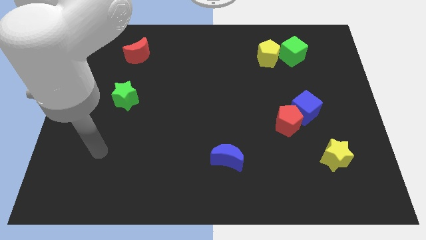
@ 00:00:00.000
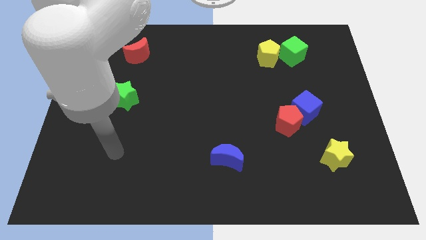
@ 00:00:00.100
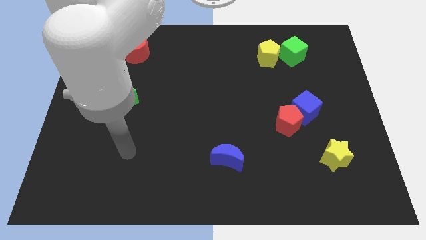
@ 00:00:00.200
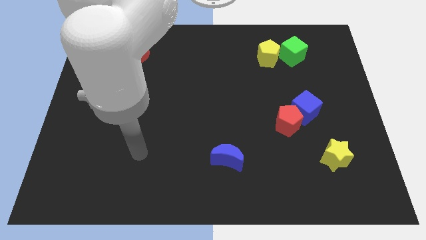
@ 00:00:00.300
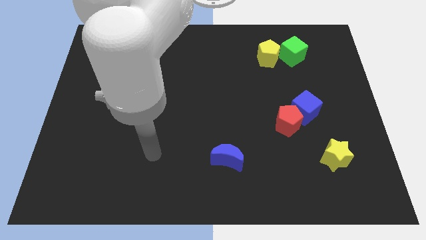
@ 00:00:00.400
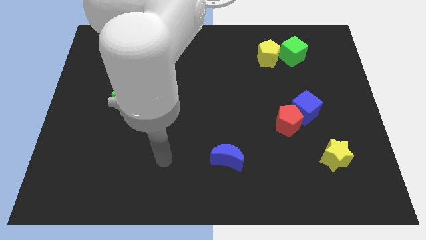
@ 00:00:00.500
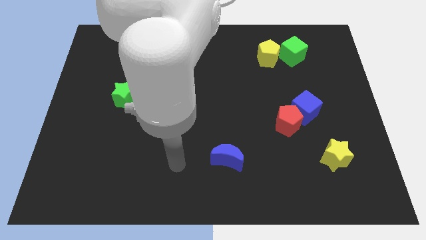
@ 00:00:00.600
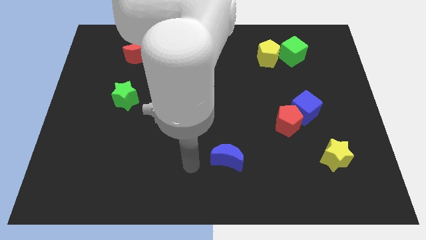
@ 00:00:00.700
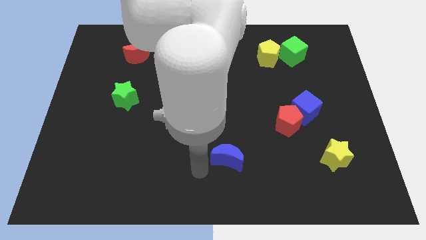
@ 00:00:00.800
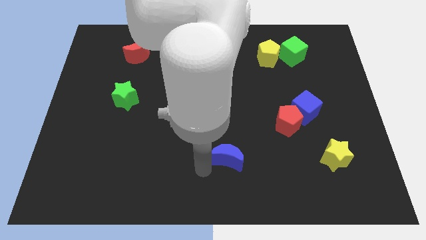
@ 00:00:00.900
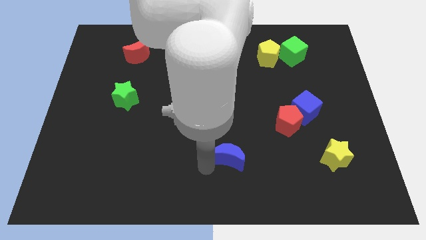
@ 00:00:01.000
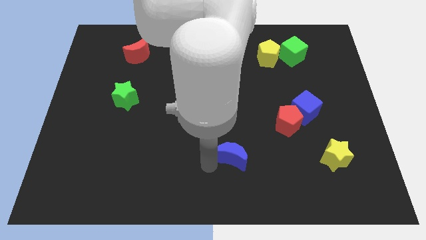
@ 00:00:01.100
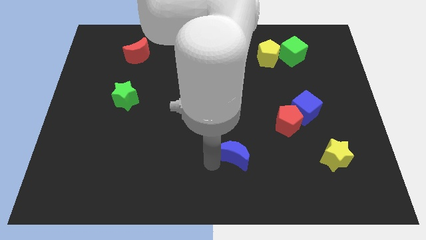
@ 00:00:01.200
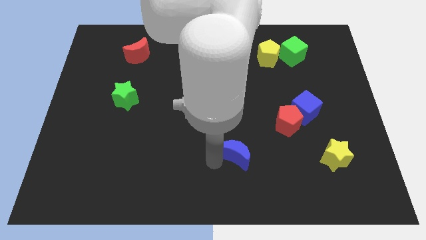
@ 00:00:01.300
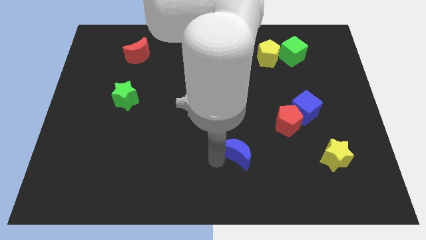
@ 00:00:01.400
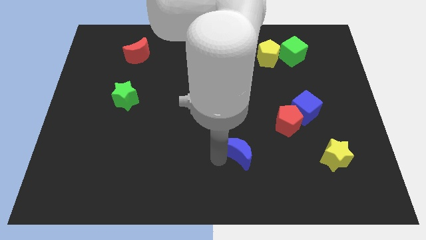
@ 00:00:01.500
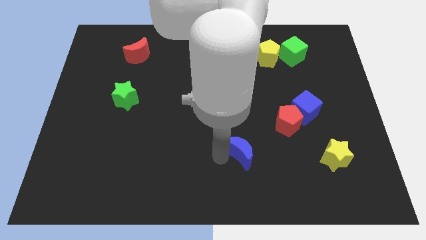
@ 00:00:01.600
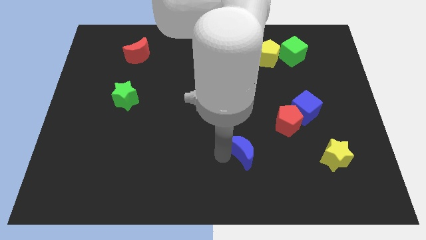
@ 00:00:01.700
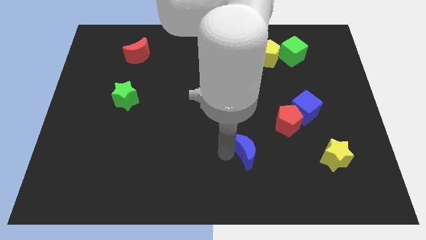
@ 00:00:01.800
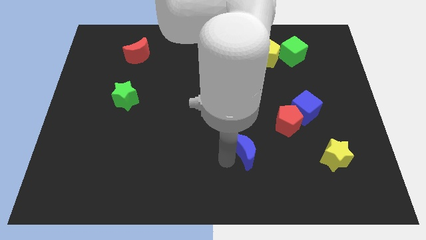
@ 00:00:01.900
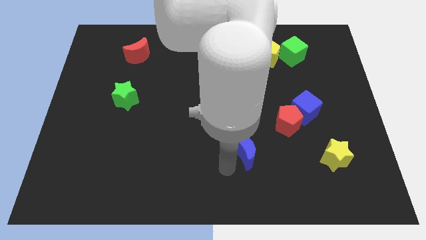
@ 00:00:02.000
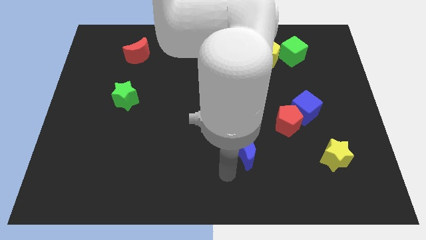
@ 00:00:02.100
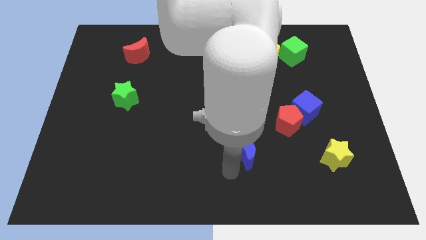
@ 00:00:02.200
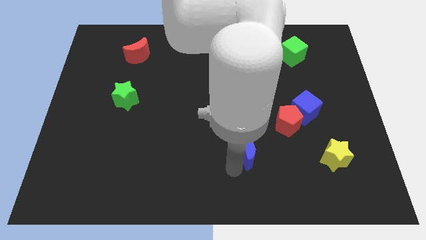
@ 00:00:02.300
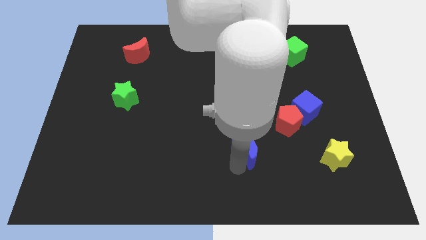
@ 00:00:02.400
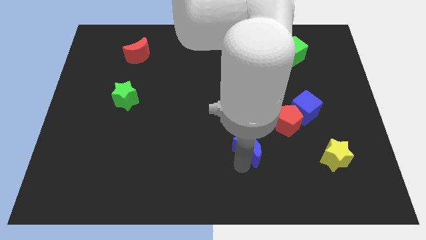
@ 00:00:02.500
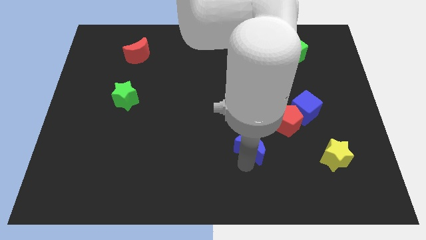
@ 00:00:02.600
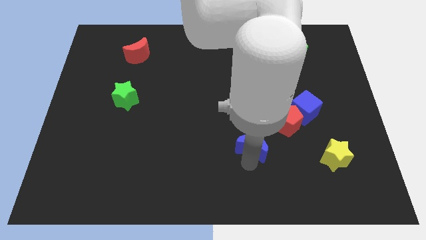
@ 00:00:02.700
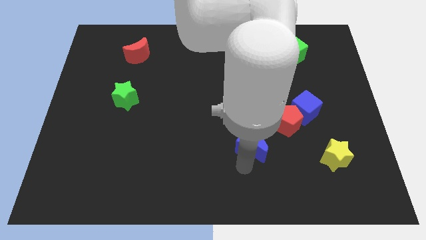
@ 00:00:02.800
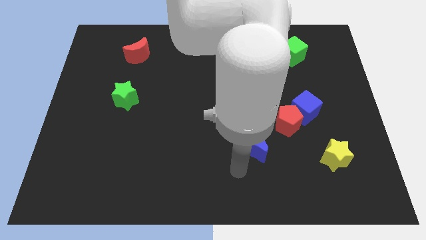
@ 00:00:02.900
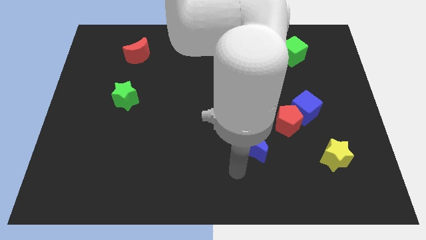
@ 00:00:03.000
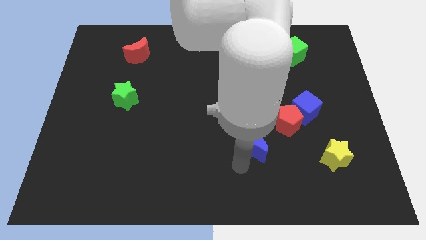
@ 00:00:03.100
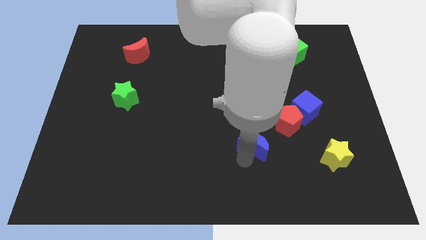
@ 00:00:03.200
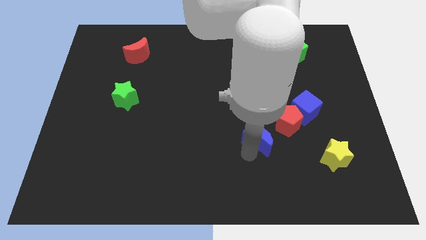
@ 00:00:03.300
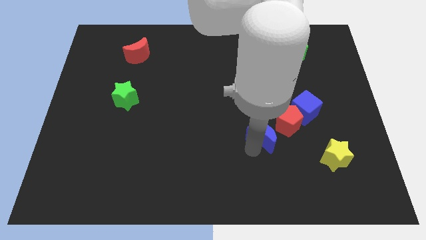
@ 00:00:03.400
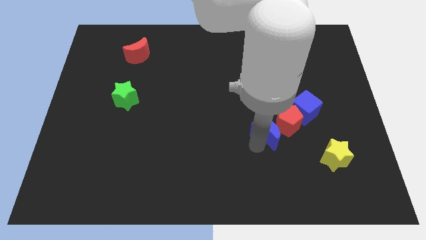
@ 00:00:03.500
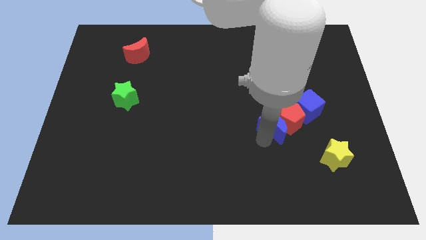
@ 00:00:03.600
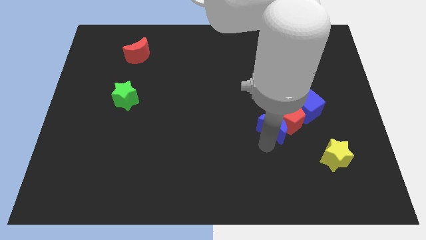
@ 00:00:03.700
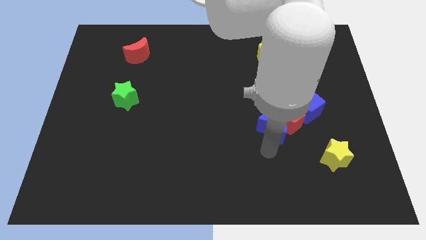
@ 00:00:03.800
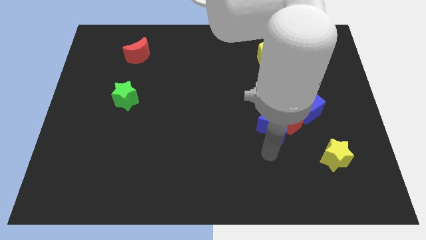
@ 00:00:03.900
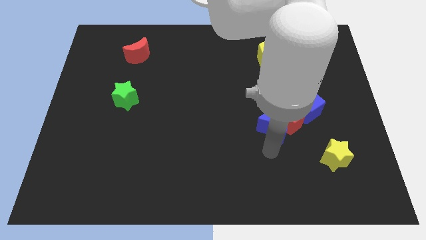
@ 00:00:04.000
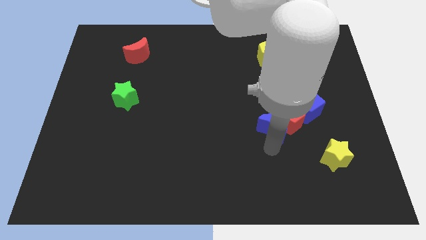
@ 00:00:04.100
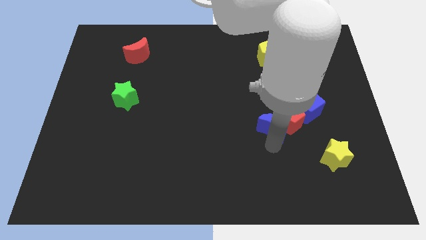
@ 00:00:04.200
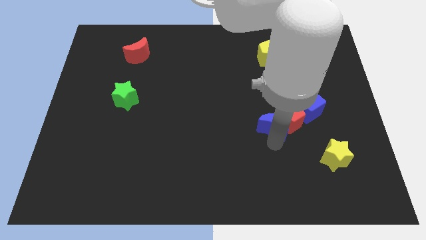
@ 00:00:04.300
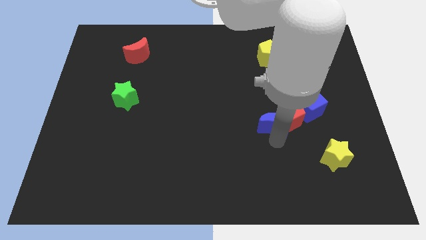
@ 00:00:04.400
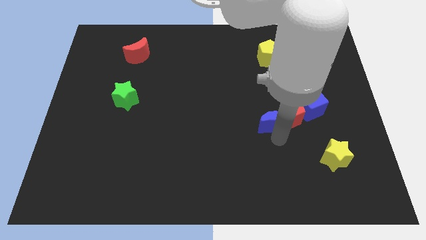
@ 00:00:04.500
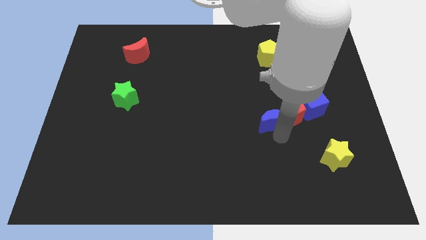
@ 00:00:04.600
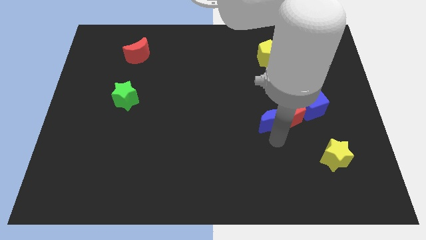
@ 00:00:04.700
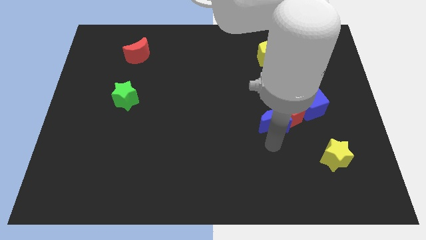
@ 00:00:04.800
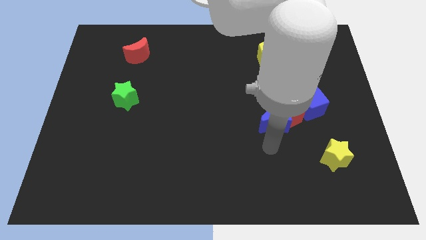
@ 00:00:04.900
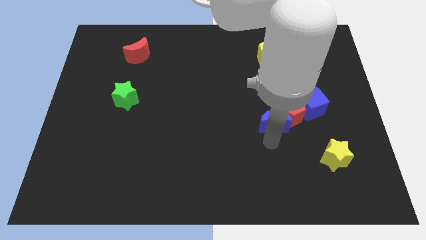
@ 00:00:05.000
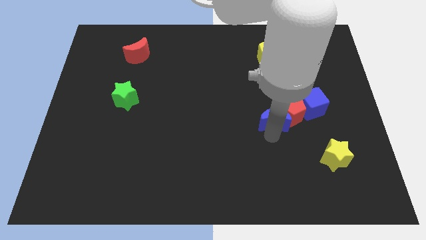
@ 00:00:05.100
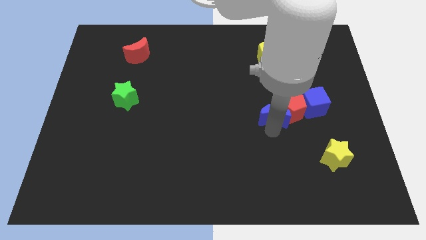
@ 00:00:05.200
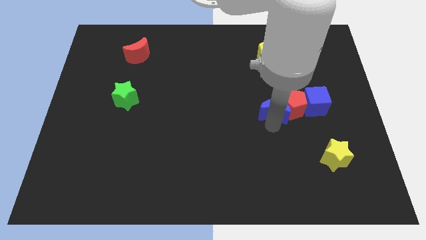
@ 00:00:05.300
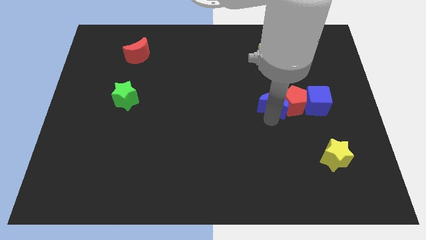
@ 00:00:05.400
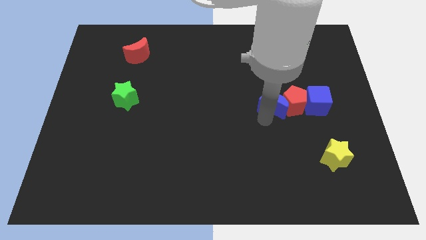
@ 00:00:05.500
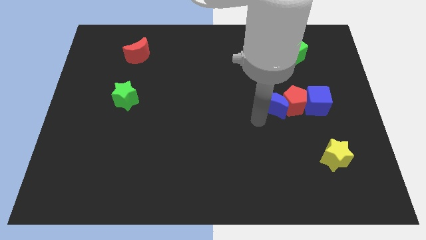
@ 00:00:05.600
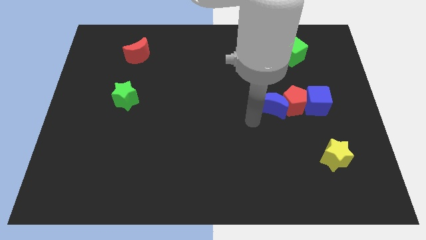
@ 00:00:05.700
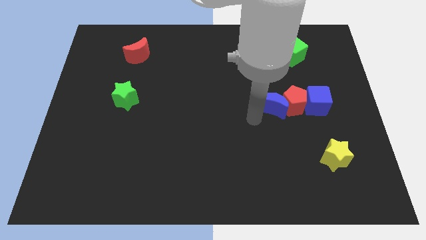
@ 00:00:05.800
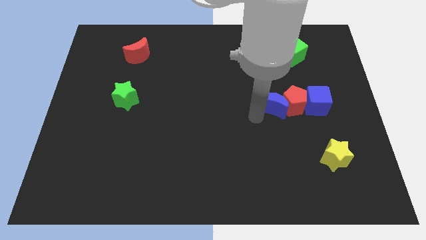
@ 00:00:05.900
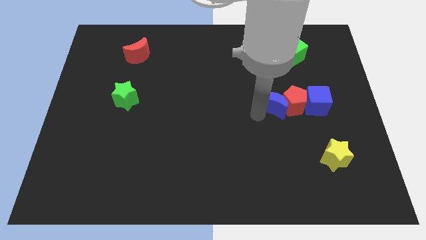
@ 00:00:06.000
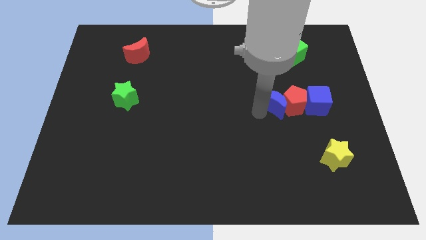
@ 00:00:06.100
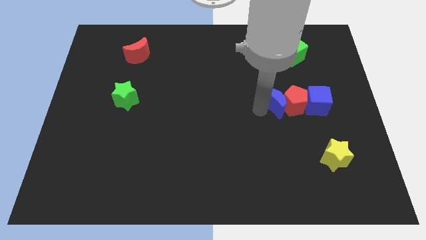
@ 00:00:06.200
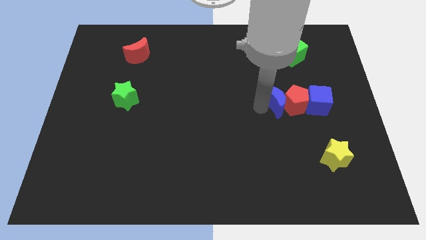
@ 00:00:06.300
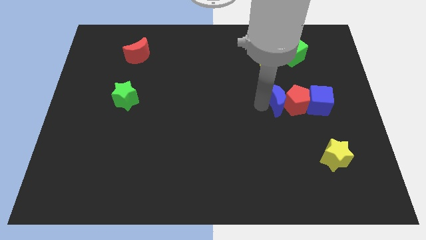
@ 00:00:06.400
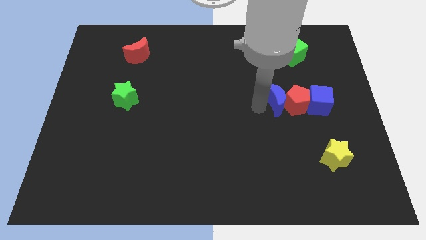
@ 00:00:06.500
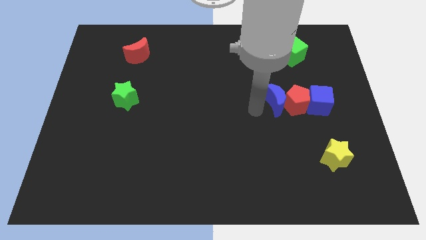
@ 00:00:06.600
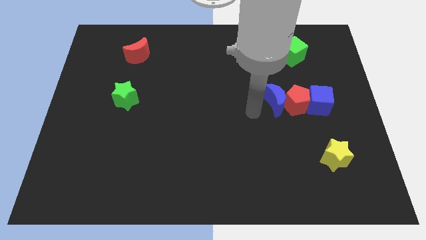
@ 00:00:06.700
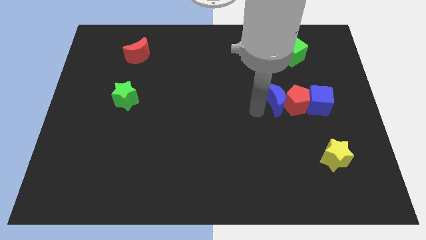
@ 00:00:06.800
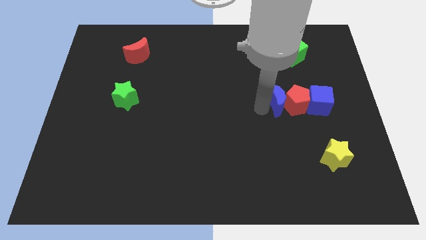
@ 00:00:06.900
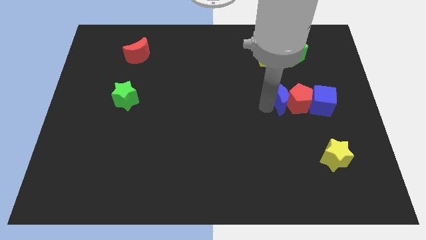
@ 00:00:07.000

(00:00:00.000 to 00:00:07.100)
push the blue moon diagonally up and right

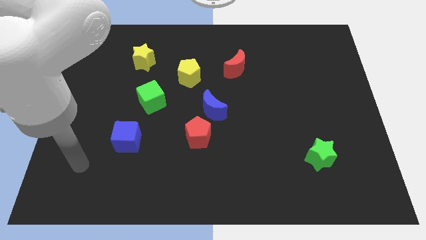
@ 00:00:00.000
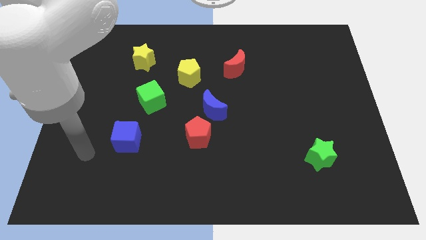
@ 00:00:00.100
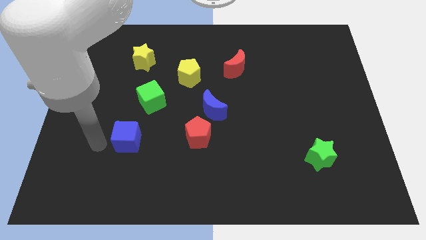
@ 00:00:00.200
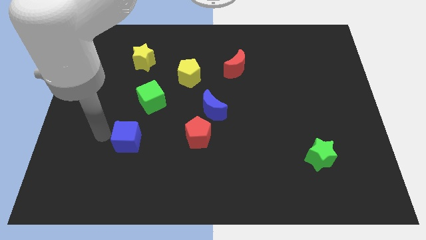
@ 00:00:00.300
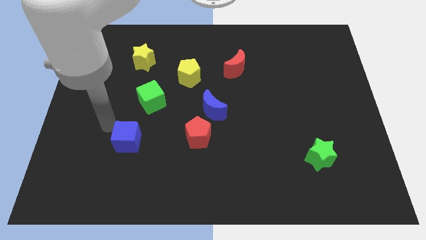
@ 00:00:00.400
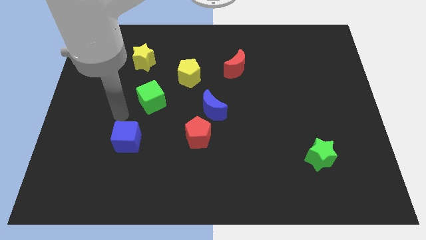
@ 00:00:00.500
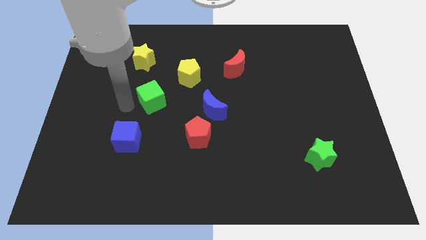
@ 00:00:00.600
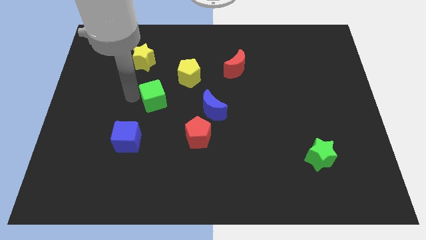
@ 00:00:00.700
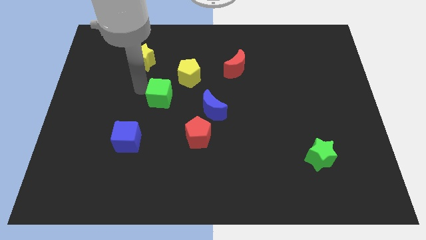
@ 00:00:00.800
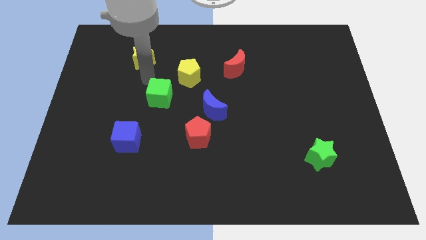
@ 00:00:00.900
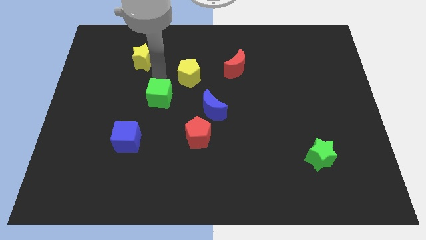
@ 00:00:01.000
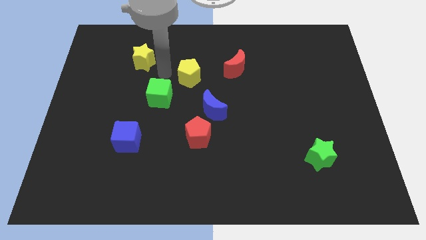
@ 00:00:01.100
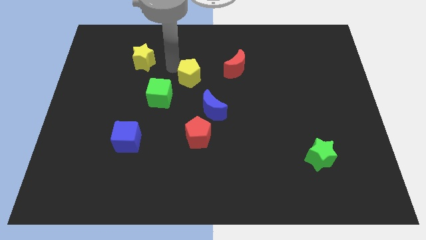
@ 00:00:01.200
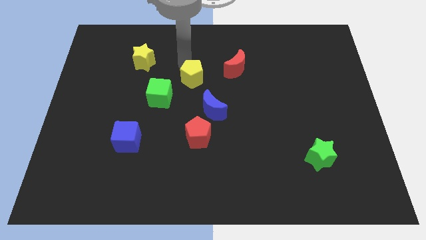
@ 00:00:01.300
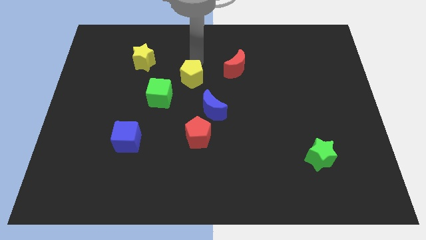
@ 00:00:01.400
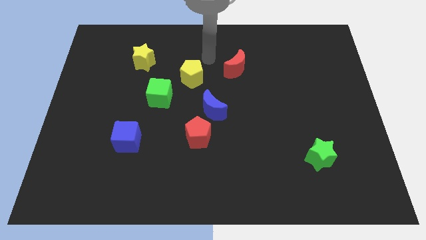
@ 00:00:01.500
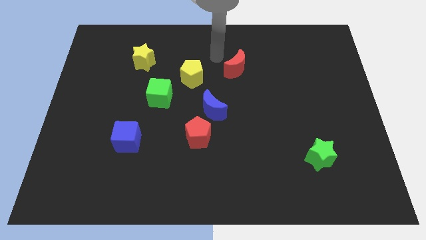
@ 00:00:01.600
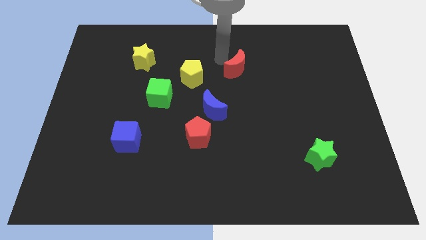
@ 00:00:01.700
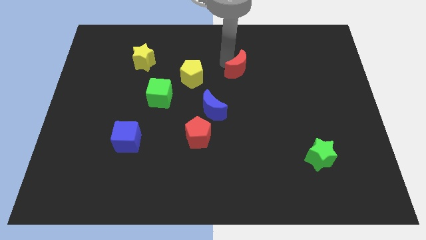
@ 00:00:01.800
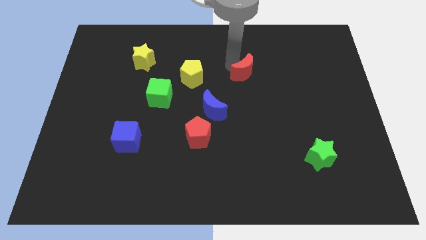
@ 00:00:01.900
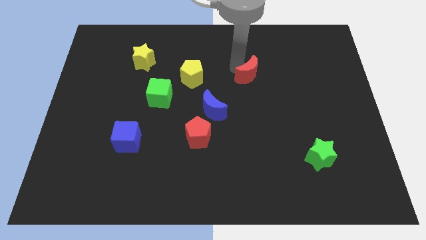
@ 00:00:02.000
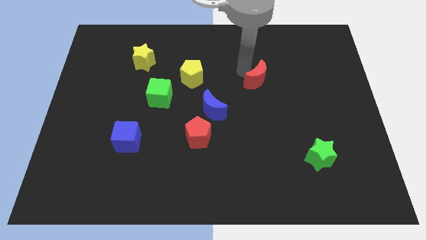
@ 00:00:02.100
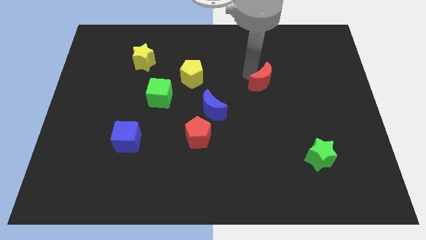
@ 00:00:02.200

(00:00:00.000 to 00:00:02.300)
slightly push the red moon diagonally downwards and right
